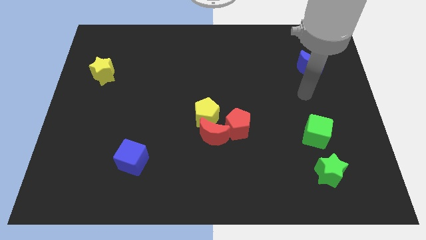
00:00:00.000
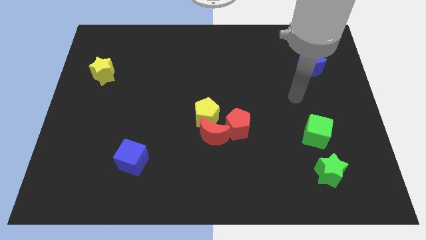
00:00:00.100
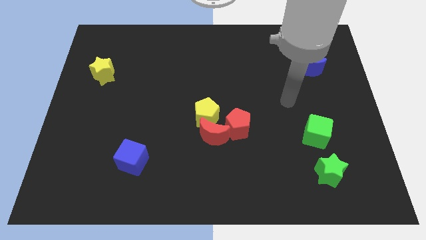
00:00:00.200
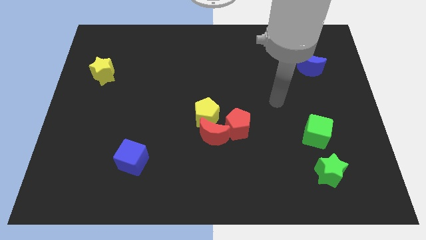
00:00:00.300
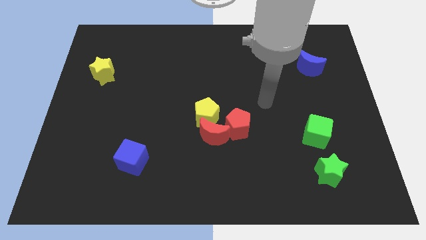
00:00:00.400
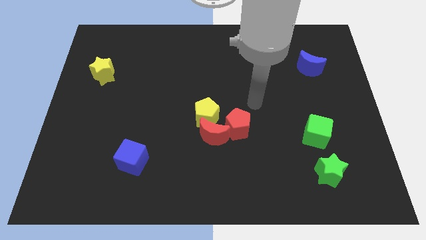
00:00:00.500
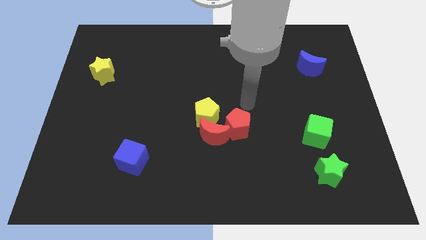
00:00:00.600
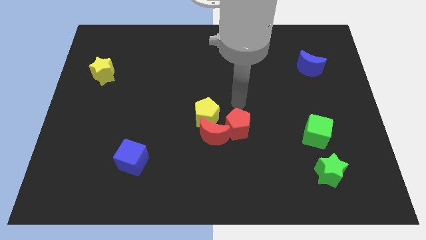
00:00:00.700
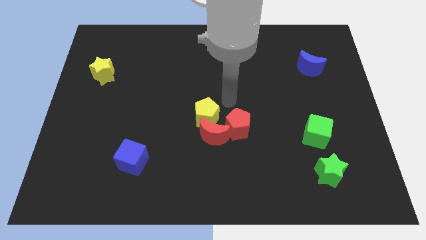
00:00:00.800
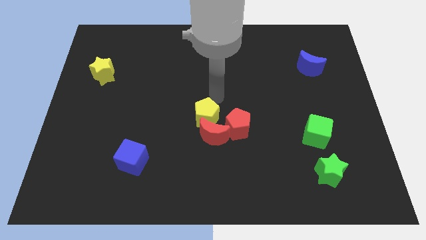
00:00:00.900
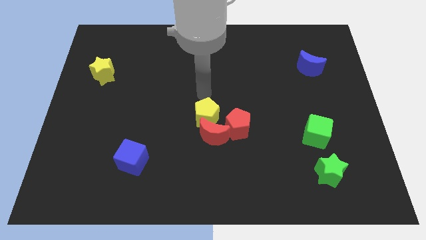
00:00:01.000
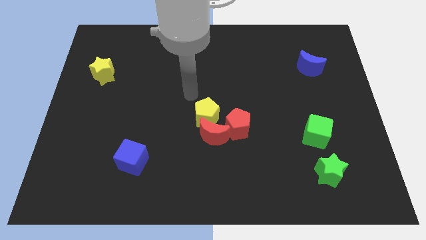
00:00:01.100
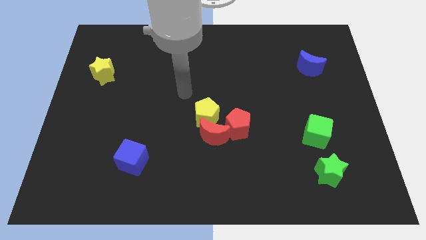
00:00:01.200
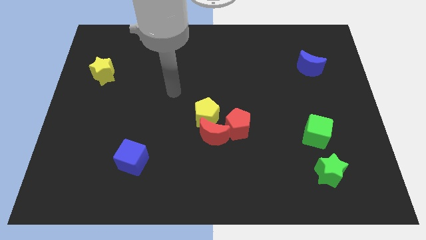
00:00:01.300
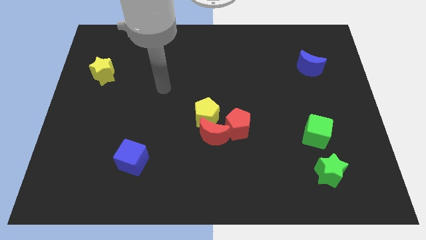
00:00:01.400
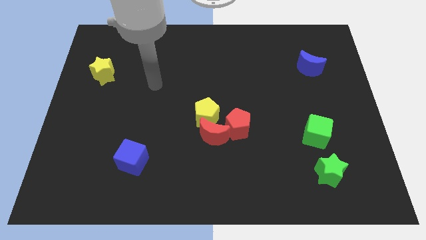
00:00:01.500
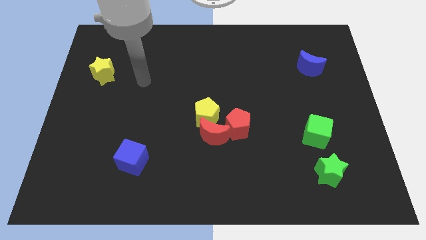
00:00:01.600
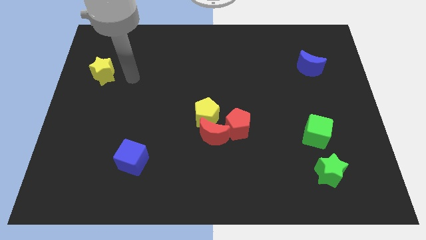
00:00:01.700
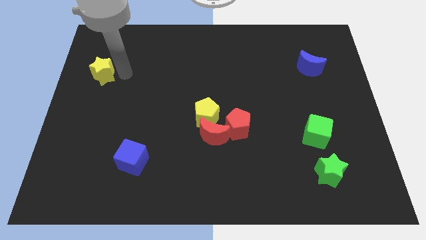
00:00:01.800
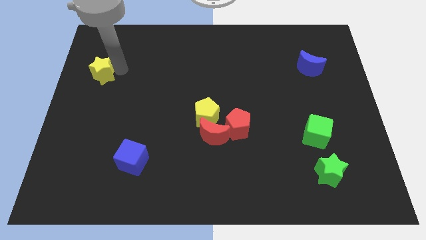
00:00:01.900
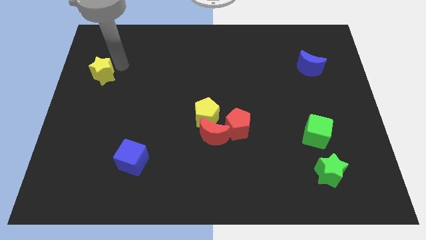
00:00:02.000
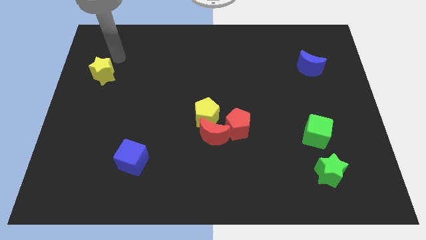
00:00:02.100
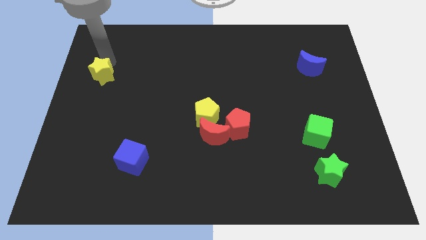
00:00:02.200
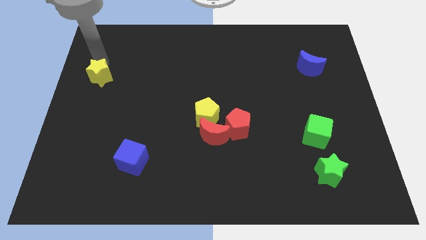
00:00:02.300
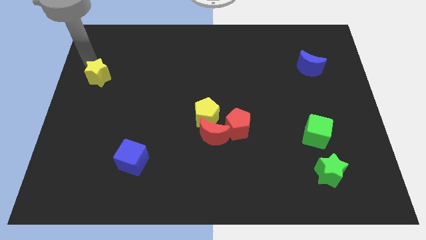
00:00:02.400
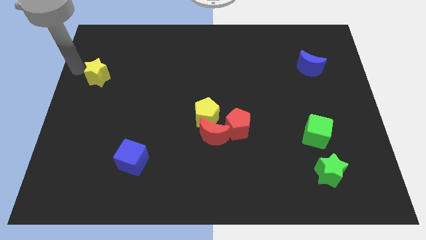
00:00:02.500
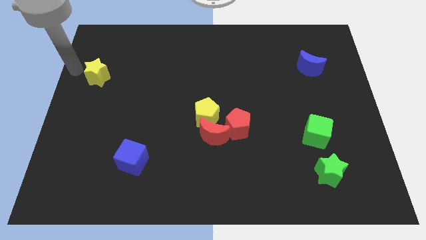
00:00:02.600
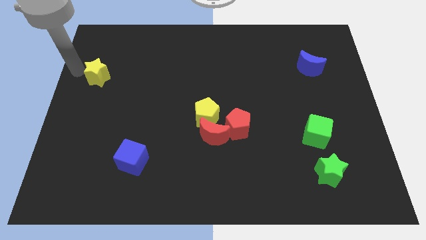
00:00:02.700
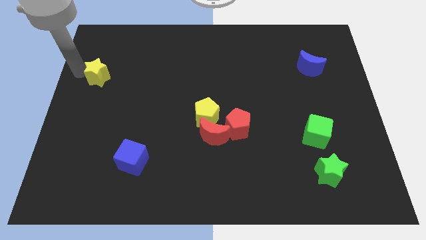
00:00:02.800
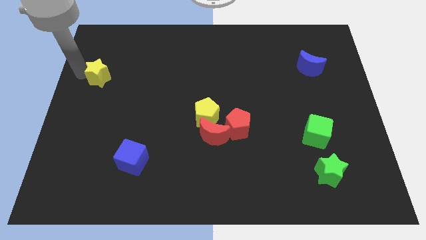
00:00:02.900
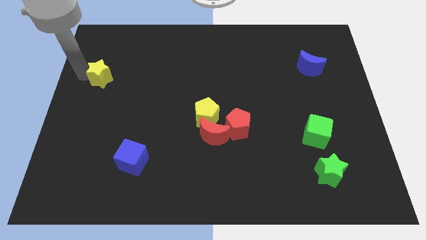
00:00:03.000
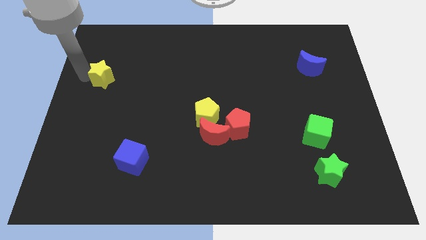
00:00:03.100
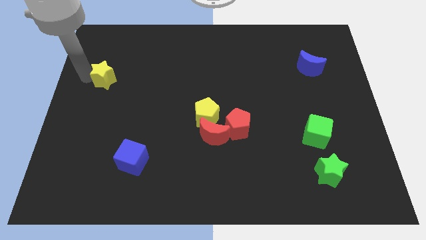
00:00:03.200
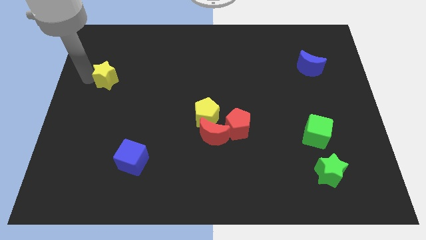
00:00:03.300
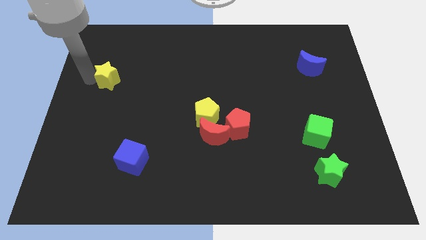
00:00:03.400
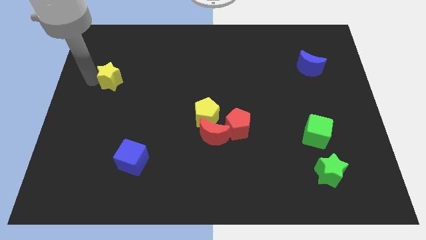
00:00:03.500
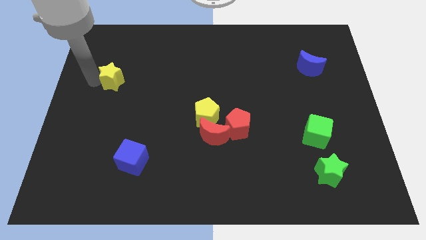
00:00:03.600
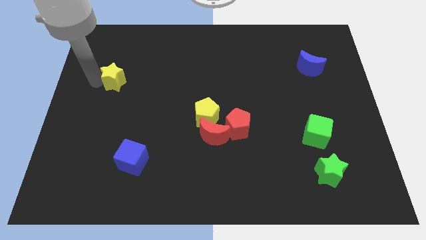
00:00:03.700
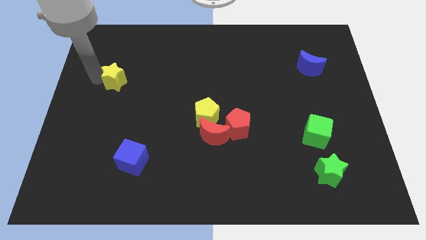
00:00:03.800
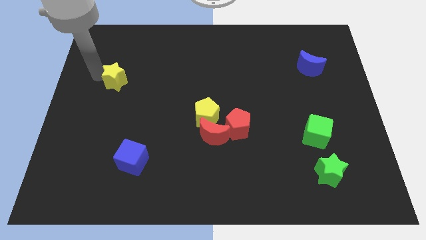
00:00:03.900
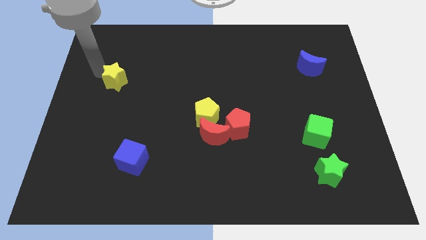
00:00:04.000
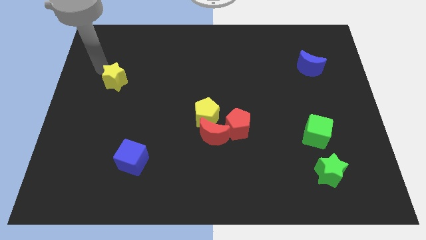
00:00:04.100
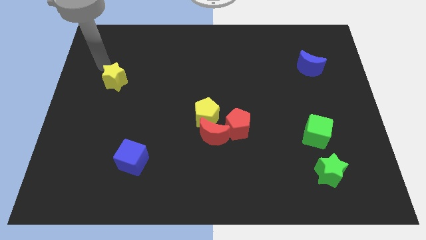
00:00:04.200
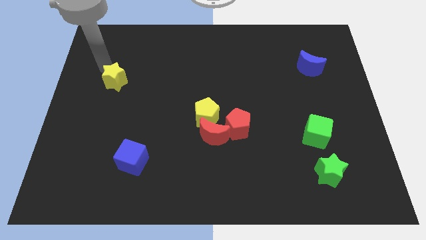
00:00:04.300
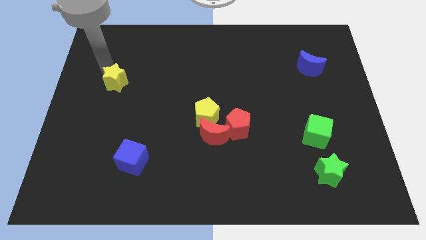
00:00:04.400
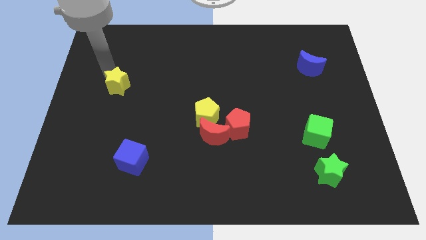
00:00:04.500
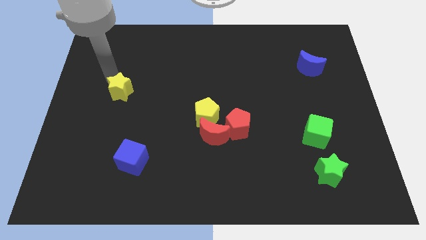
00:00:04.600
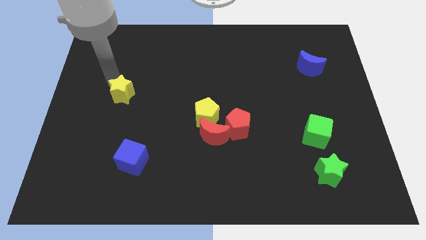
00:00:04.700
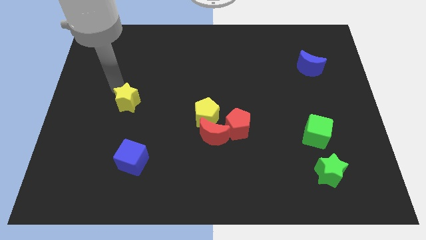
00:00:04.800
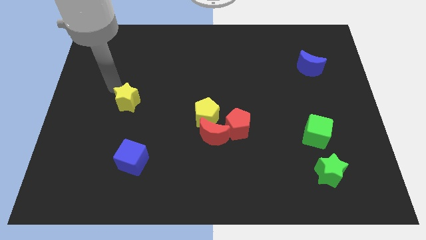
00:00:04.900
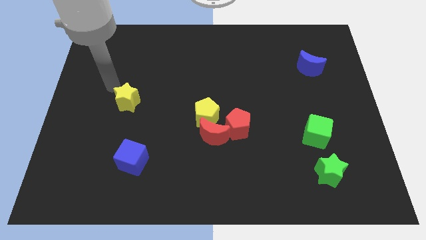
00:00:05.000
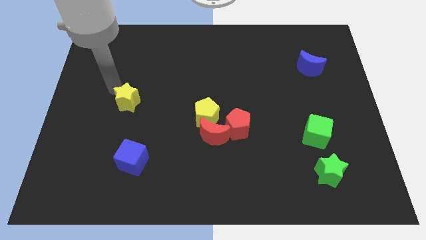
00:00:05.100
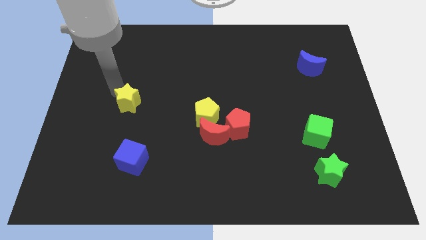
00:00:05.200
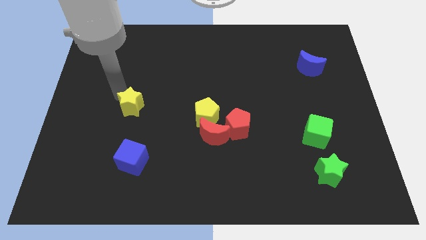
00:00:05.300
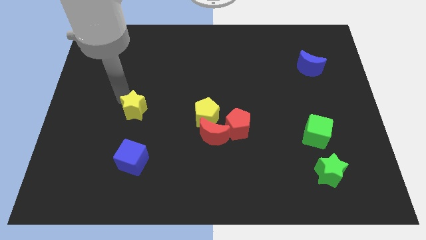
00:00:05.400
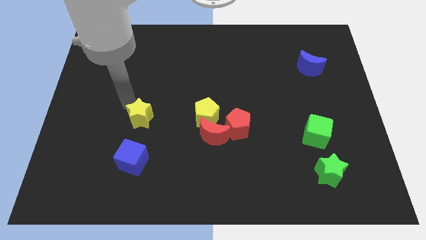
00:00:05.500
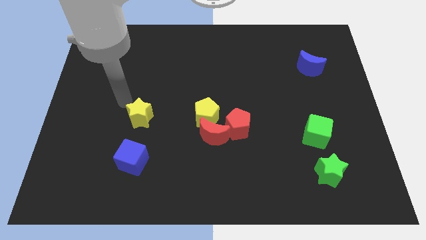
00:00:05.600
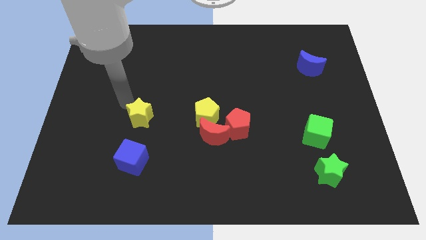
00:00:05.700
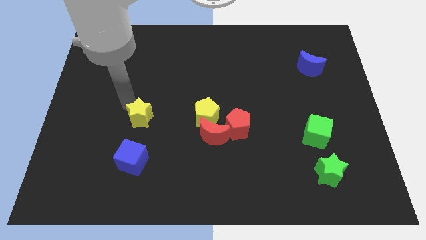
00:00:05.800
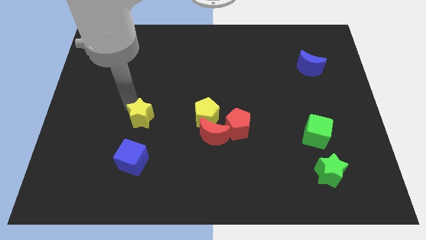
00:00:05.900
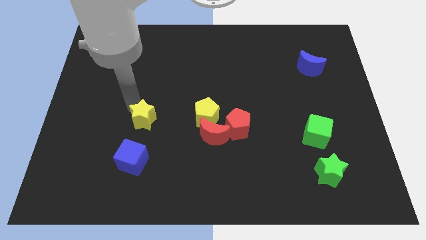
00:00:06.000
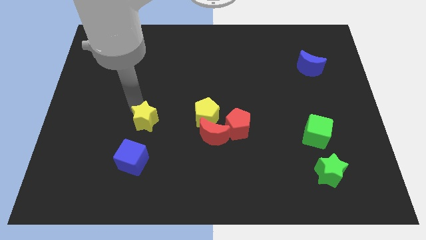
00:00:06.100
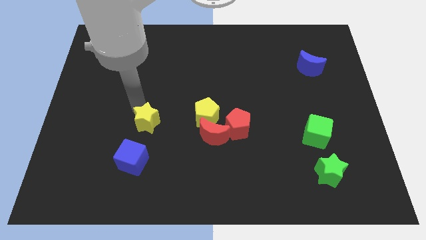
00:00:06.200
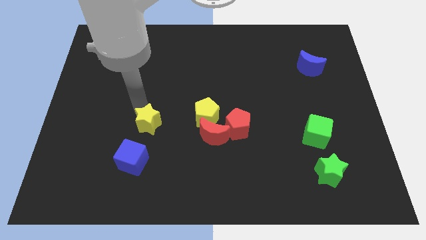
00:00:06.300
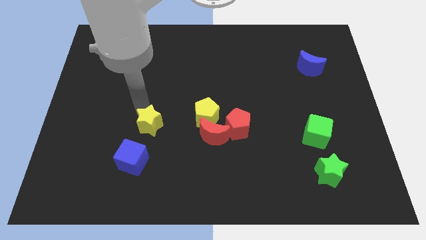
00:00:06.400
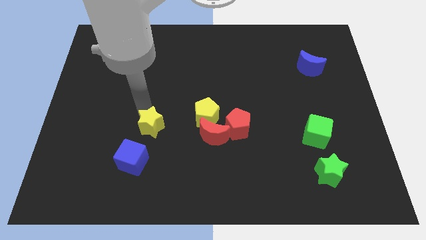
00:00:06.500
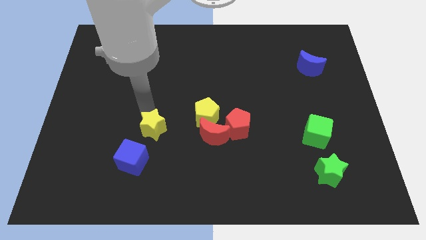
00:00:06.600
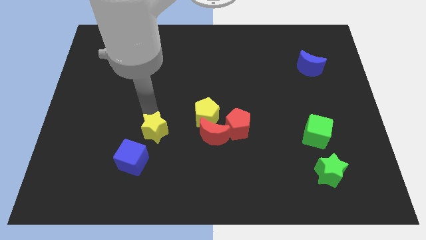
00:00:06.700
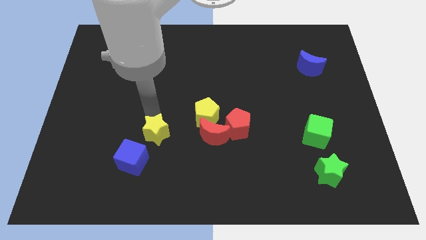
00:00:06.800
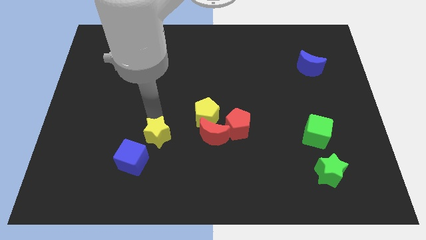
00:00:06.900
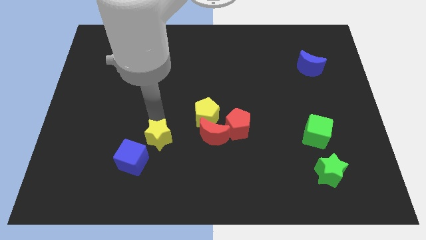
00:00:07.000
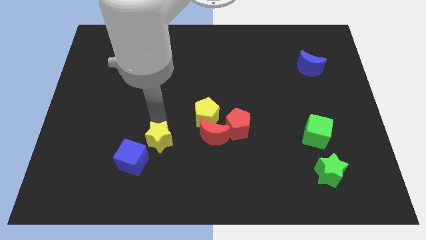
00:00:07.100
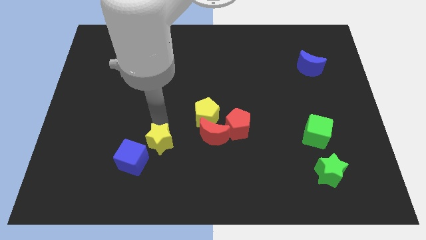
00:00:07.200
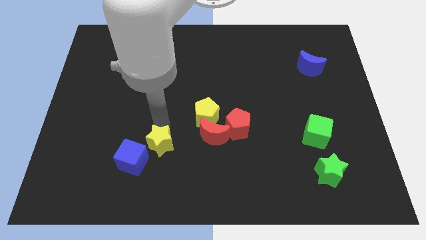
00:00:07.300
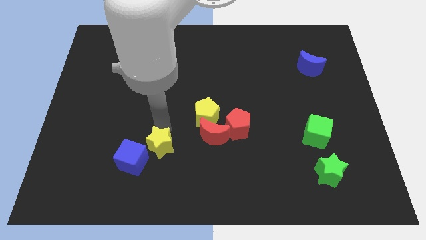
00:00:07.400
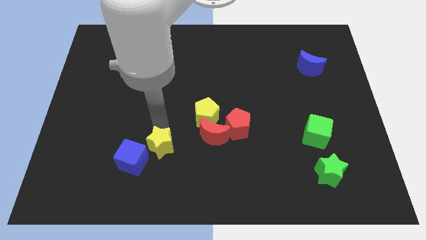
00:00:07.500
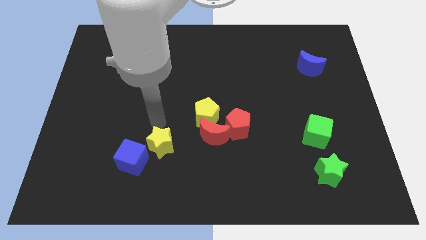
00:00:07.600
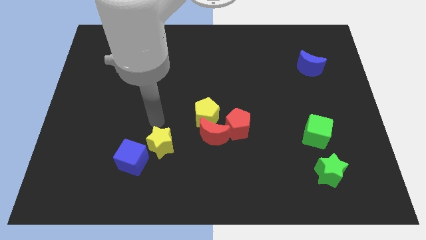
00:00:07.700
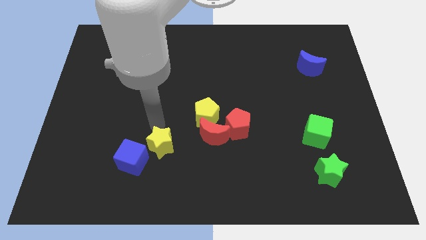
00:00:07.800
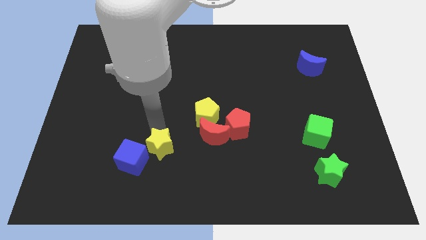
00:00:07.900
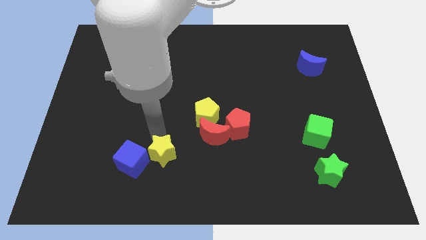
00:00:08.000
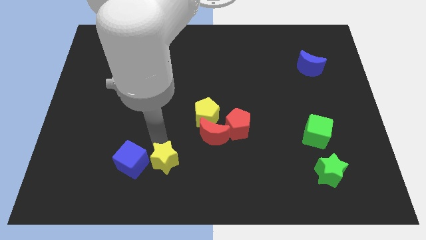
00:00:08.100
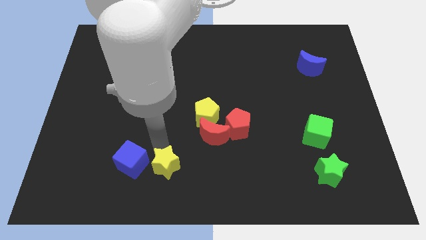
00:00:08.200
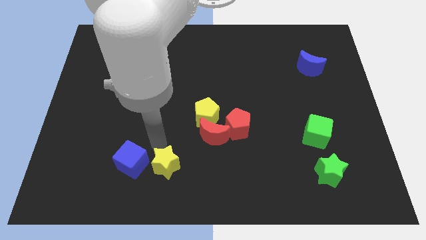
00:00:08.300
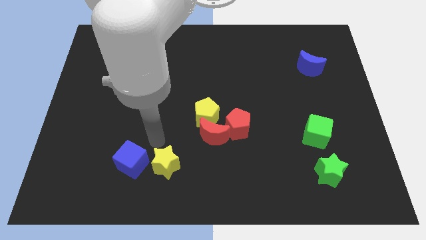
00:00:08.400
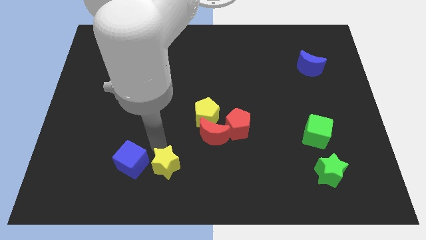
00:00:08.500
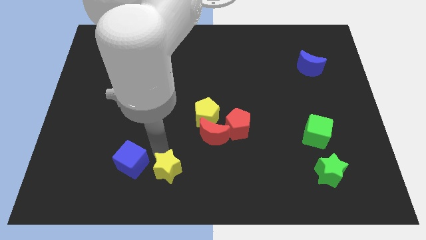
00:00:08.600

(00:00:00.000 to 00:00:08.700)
push the yellow star to the bottom
